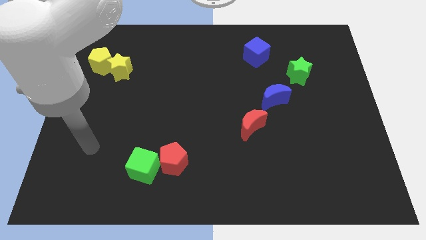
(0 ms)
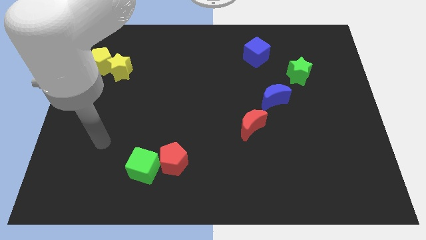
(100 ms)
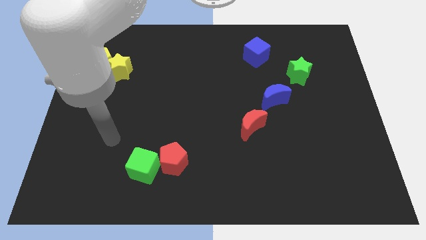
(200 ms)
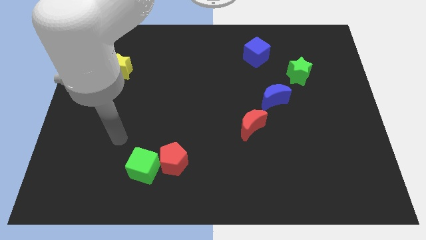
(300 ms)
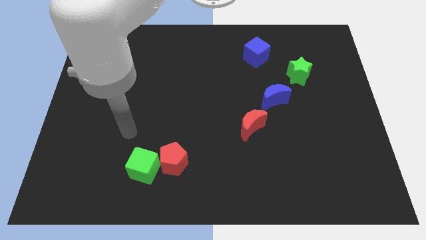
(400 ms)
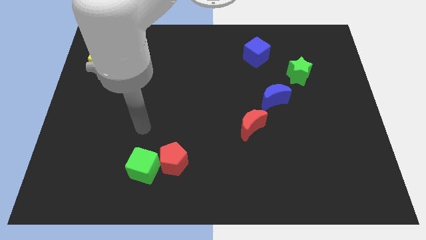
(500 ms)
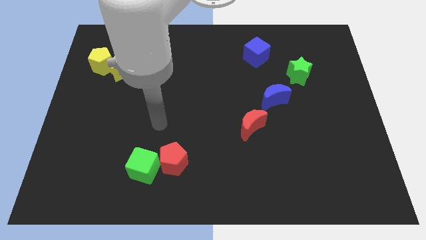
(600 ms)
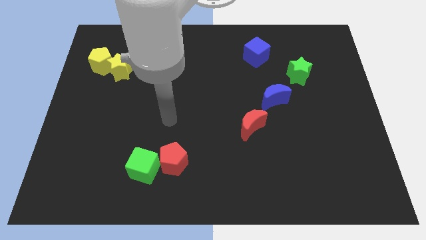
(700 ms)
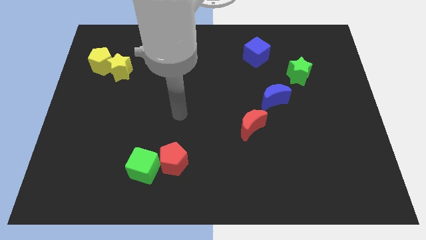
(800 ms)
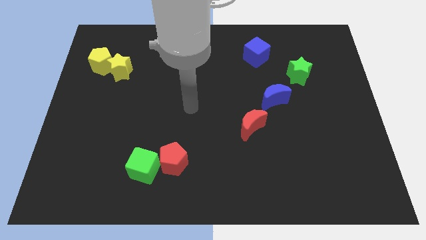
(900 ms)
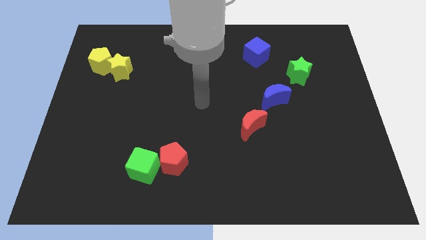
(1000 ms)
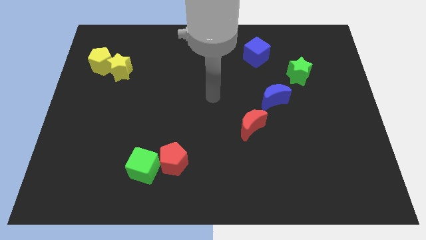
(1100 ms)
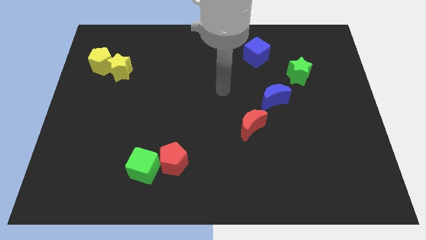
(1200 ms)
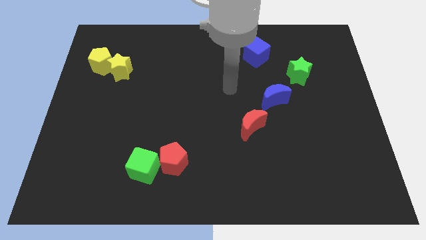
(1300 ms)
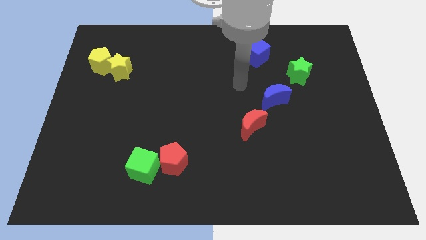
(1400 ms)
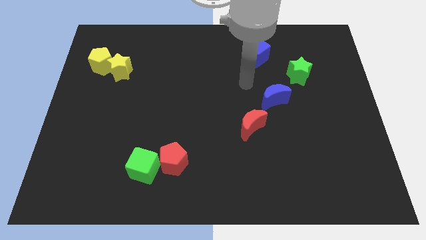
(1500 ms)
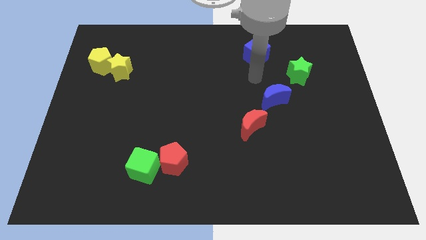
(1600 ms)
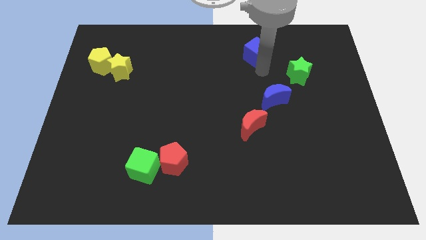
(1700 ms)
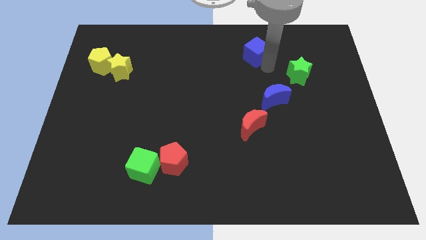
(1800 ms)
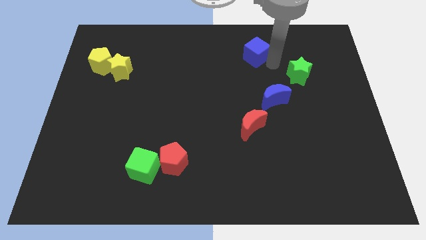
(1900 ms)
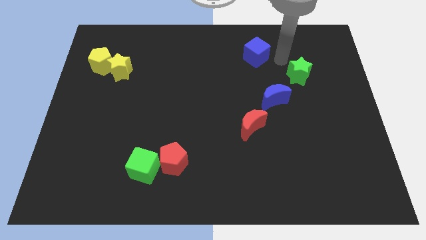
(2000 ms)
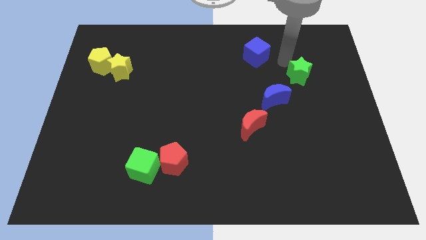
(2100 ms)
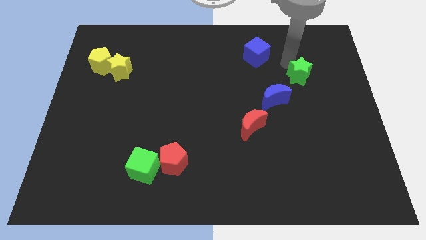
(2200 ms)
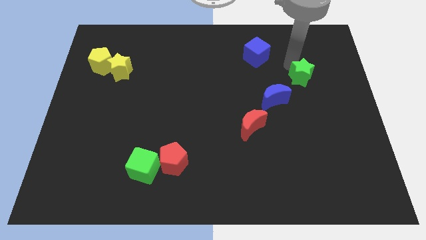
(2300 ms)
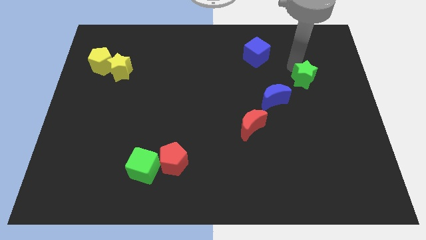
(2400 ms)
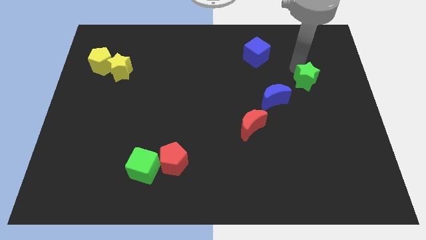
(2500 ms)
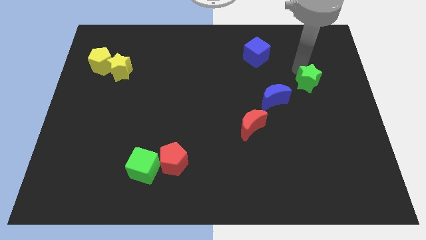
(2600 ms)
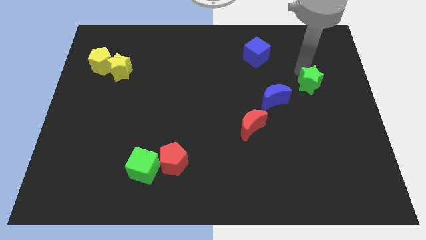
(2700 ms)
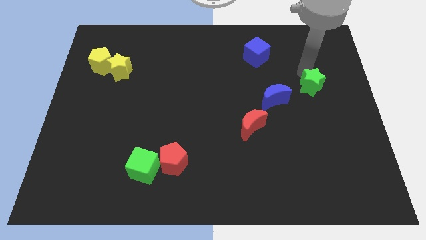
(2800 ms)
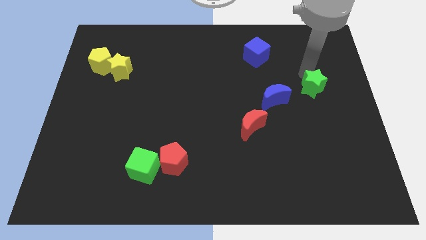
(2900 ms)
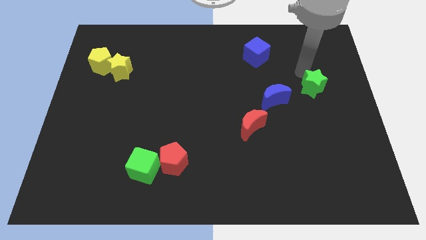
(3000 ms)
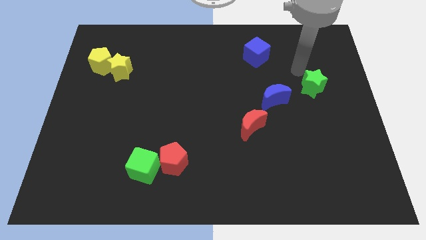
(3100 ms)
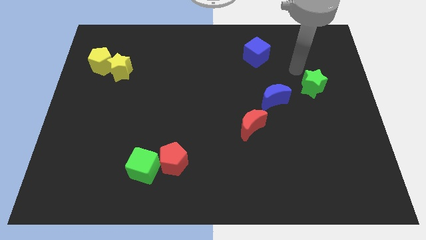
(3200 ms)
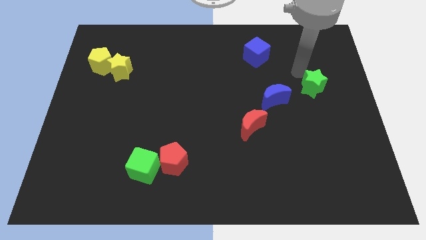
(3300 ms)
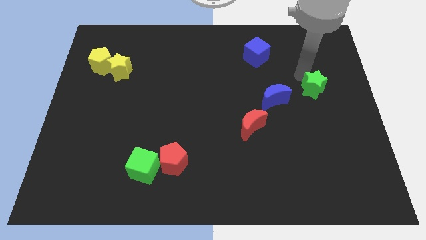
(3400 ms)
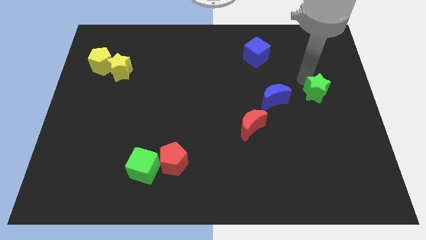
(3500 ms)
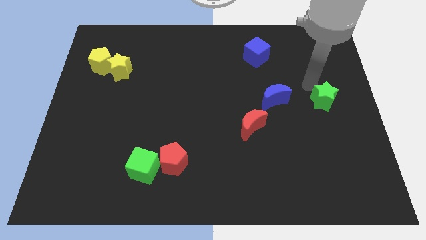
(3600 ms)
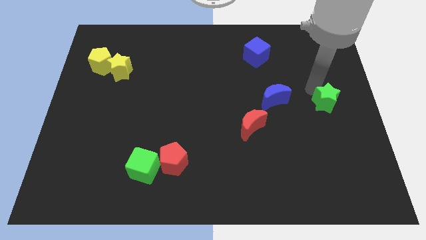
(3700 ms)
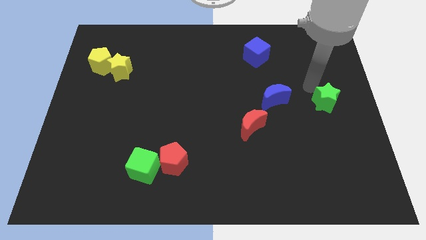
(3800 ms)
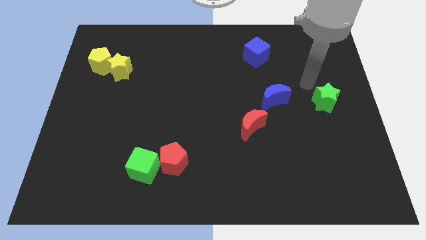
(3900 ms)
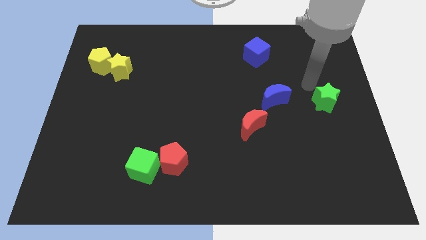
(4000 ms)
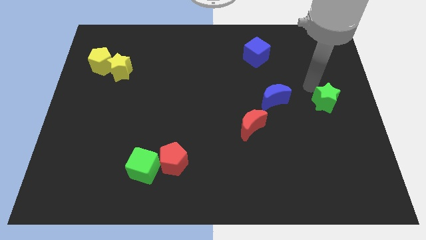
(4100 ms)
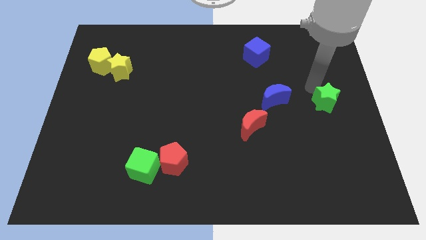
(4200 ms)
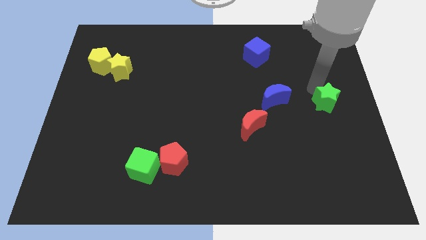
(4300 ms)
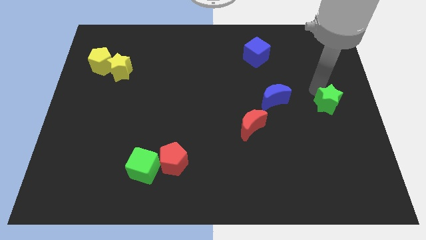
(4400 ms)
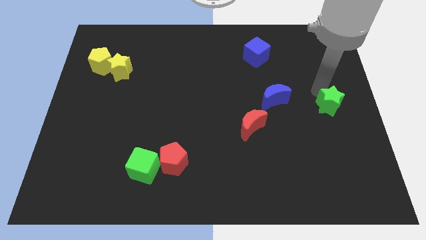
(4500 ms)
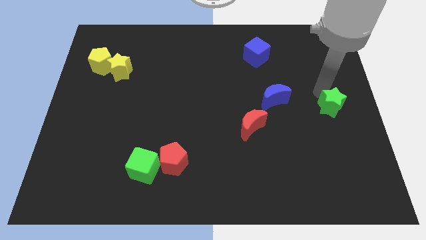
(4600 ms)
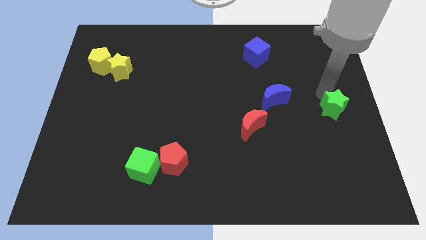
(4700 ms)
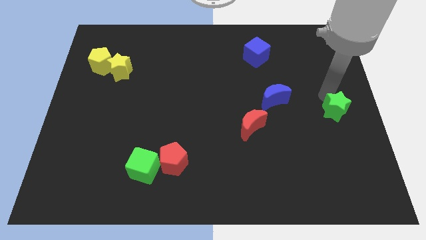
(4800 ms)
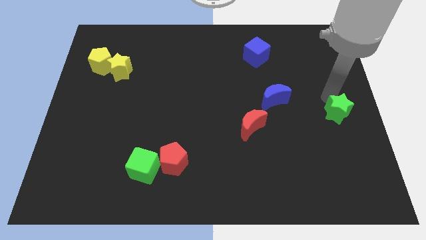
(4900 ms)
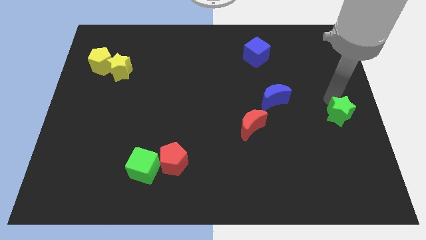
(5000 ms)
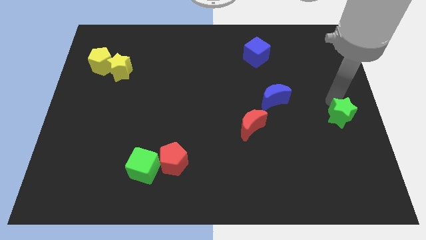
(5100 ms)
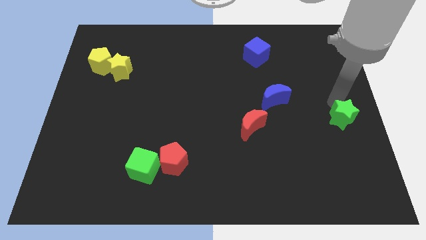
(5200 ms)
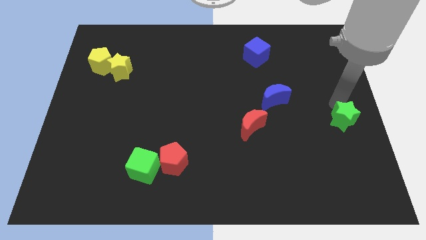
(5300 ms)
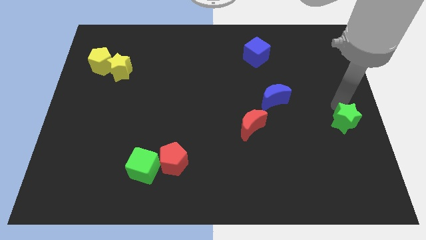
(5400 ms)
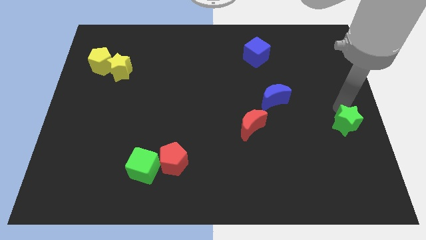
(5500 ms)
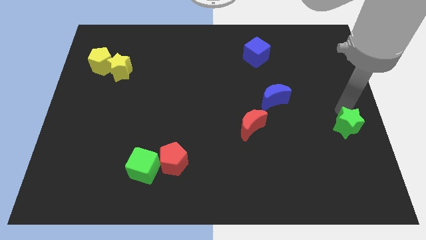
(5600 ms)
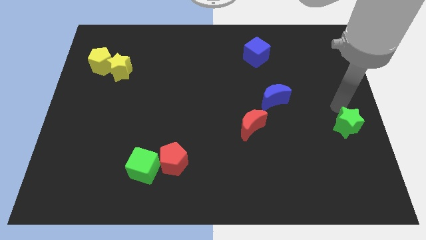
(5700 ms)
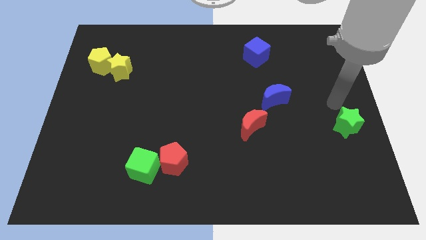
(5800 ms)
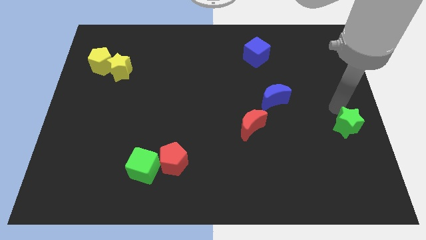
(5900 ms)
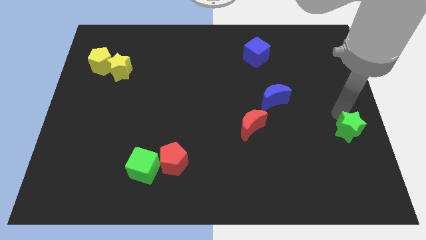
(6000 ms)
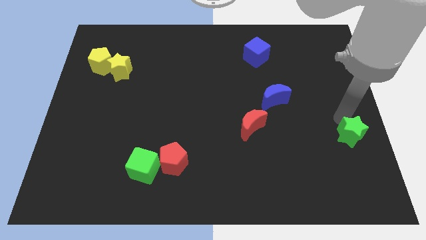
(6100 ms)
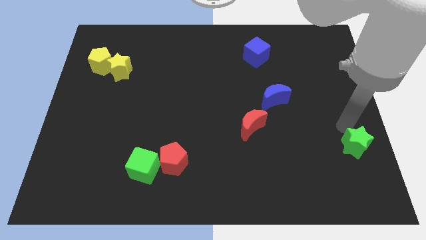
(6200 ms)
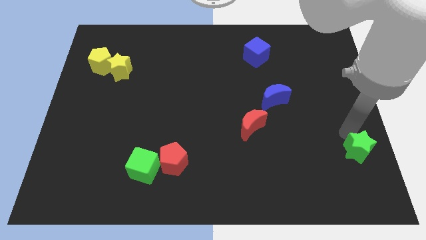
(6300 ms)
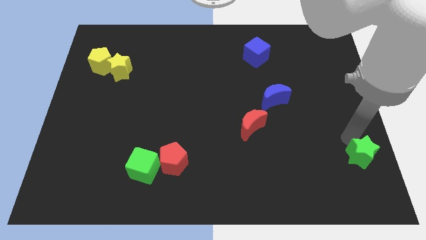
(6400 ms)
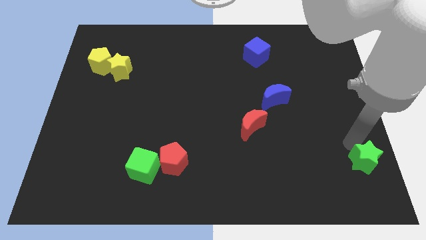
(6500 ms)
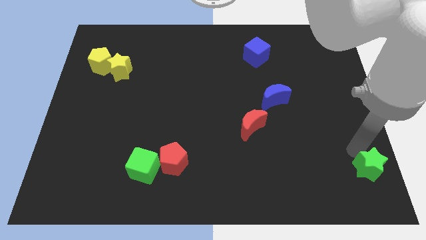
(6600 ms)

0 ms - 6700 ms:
push the green star to the bottom right of the board
